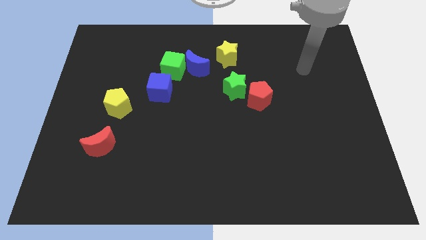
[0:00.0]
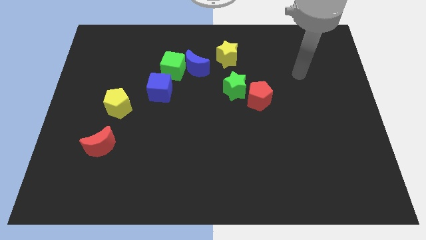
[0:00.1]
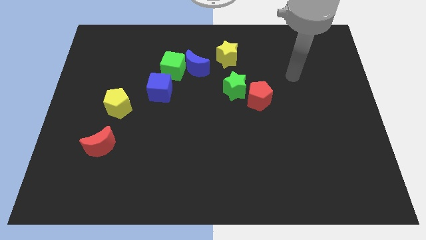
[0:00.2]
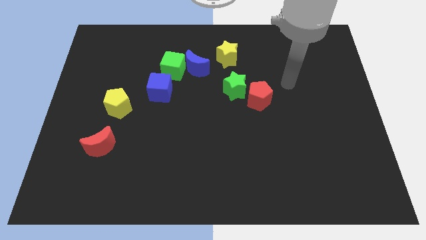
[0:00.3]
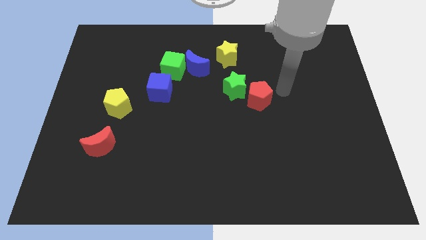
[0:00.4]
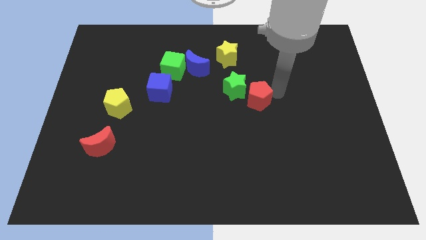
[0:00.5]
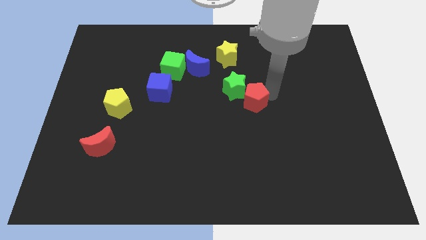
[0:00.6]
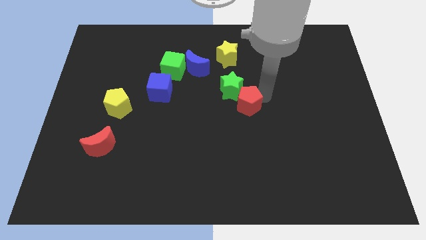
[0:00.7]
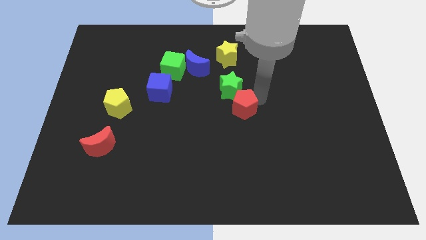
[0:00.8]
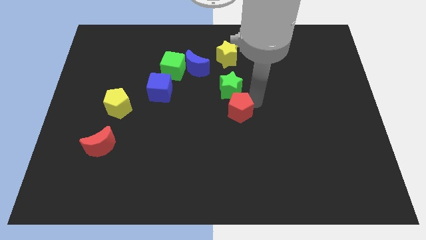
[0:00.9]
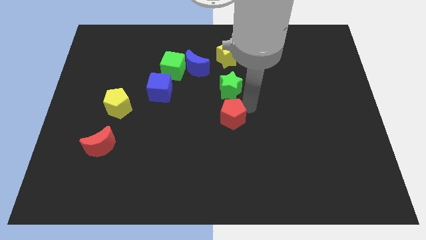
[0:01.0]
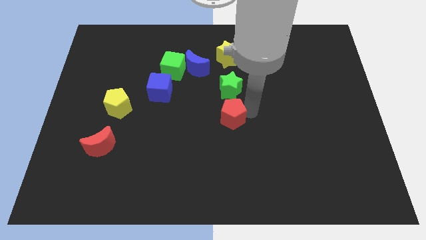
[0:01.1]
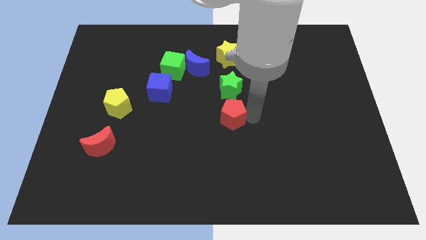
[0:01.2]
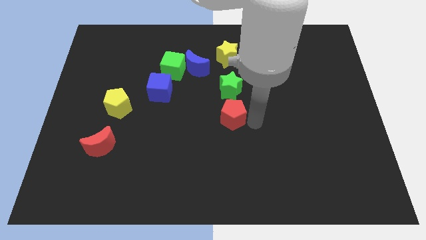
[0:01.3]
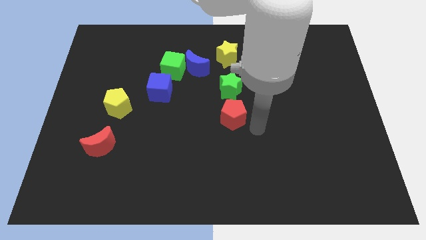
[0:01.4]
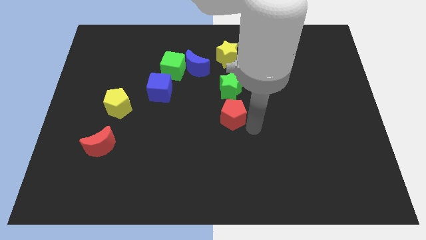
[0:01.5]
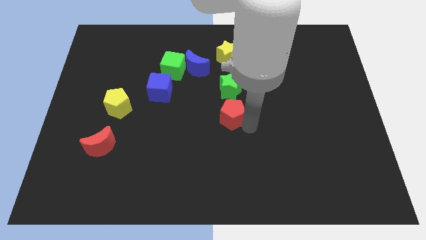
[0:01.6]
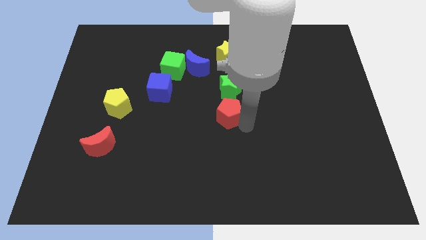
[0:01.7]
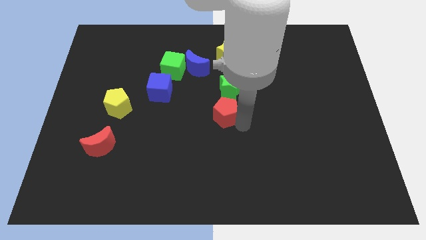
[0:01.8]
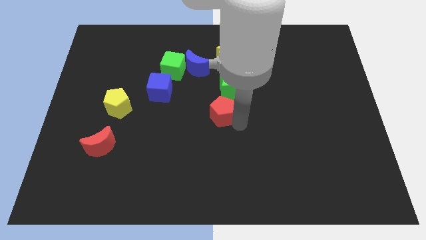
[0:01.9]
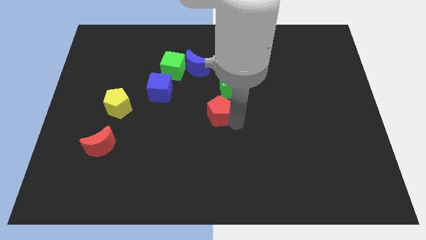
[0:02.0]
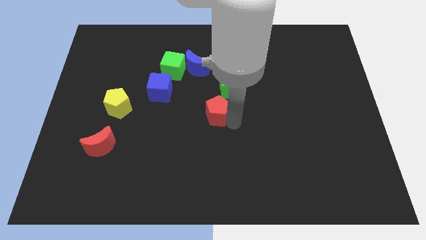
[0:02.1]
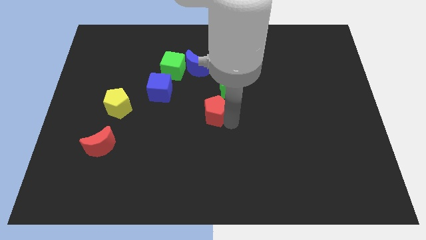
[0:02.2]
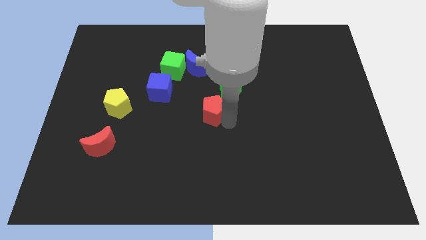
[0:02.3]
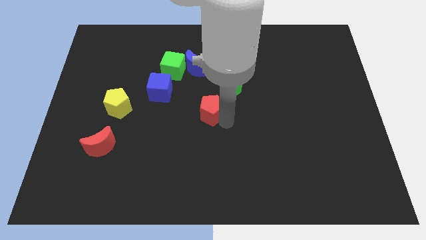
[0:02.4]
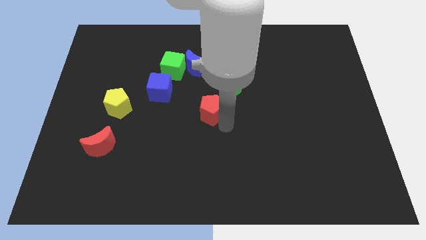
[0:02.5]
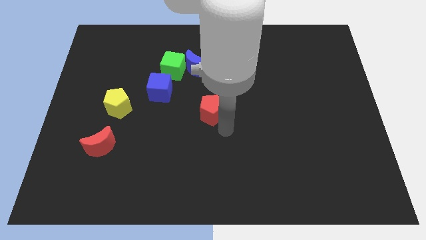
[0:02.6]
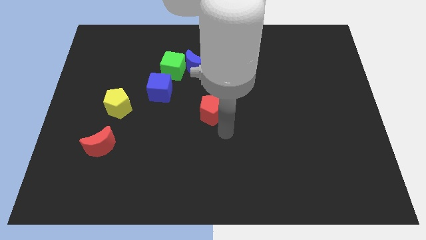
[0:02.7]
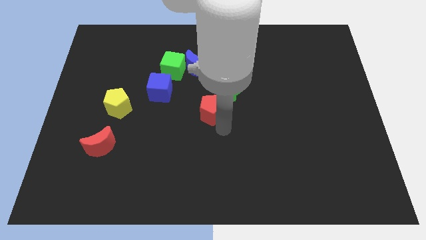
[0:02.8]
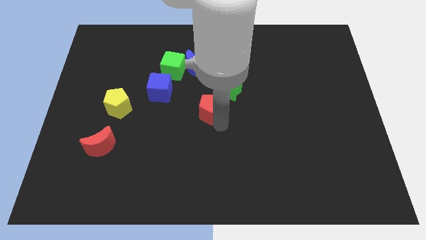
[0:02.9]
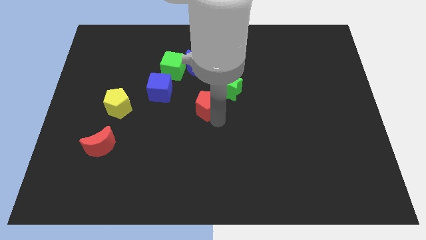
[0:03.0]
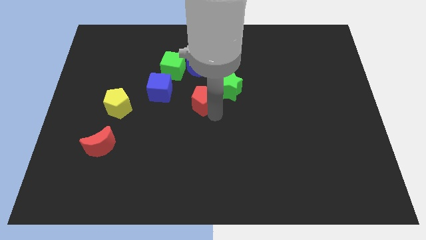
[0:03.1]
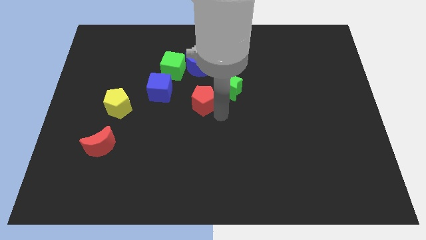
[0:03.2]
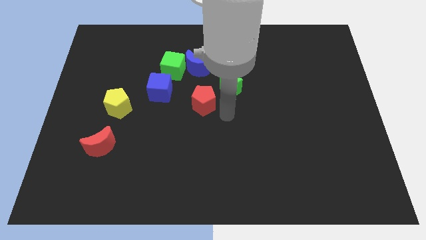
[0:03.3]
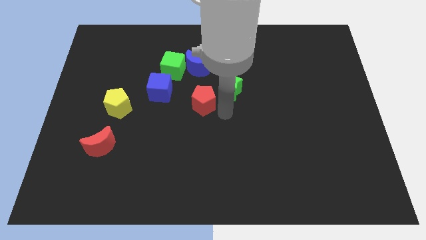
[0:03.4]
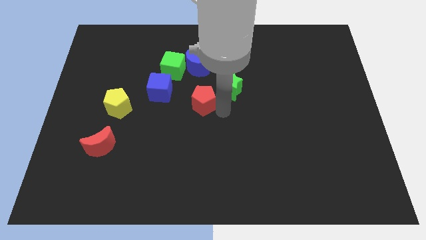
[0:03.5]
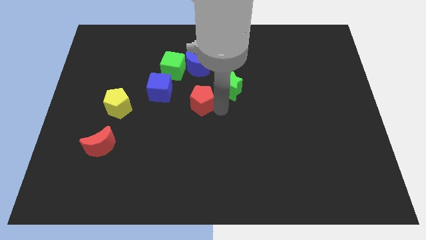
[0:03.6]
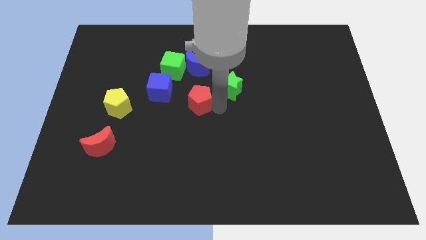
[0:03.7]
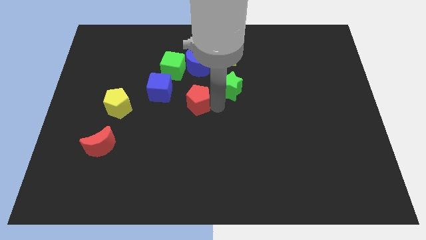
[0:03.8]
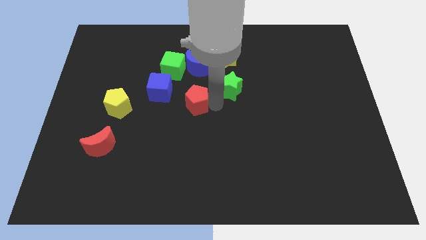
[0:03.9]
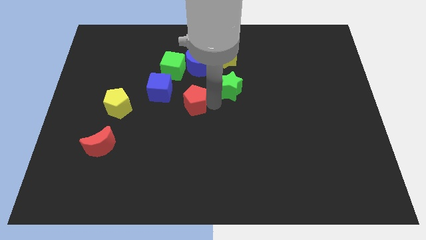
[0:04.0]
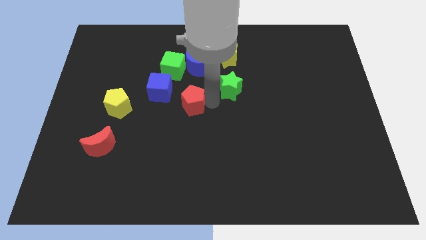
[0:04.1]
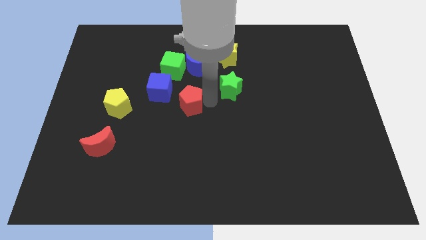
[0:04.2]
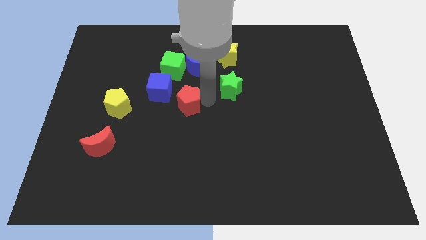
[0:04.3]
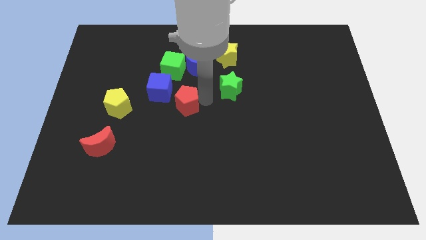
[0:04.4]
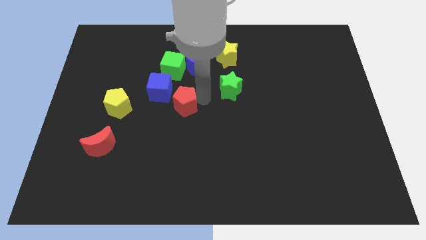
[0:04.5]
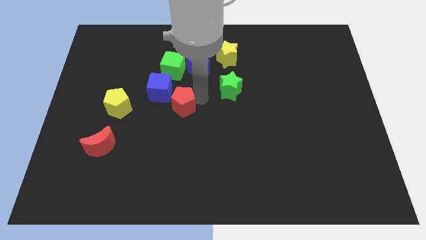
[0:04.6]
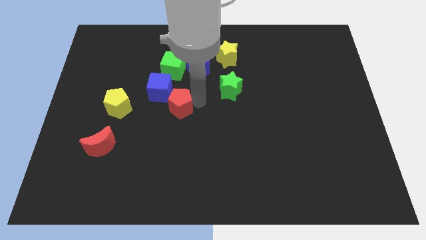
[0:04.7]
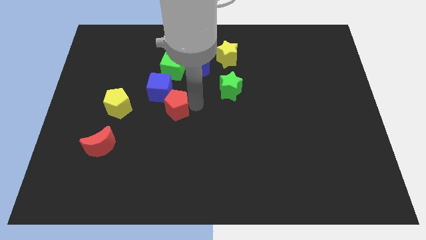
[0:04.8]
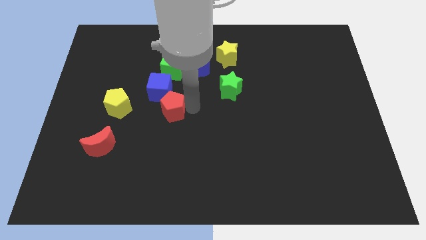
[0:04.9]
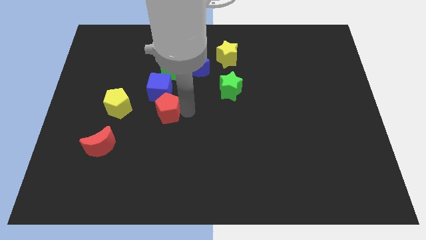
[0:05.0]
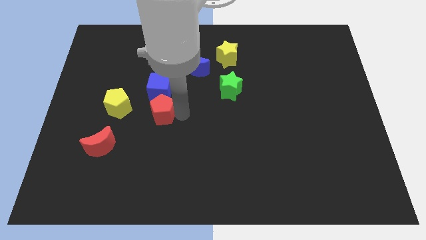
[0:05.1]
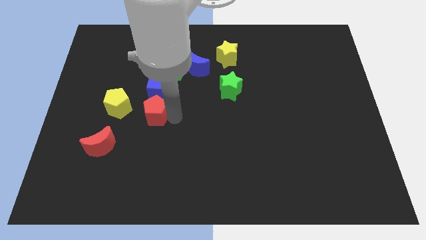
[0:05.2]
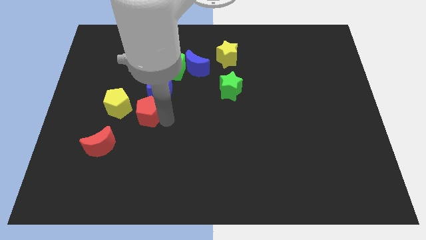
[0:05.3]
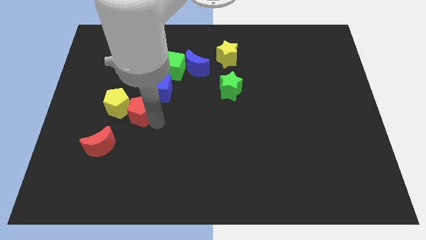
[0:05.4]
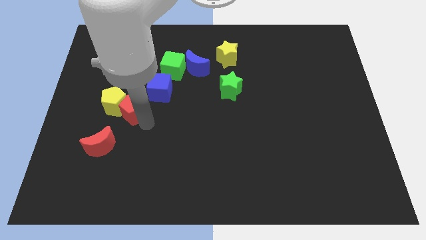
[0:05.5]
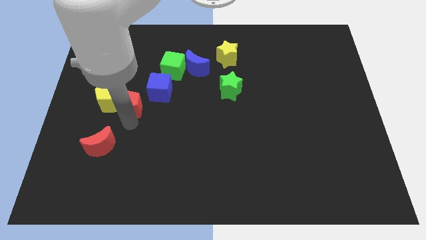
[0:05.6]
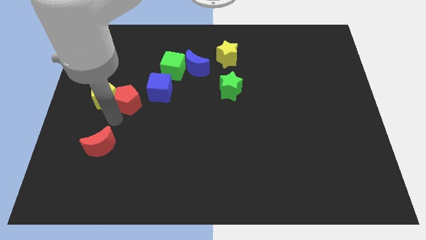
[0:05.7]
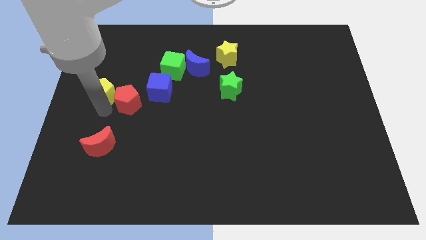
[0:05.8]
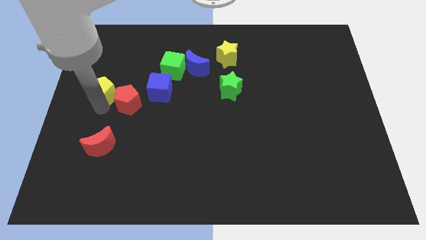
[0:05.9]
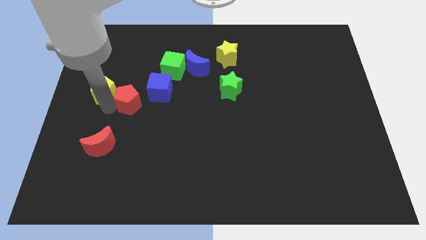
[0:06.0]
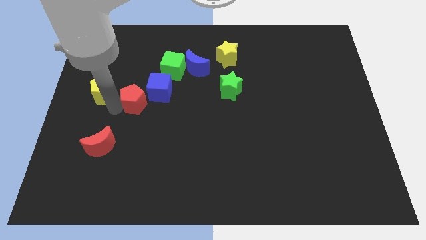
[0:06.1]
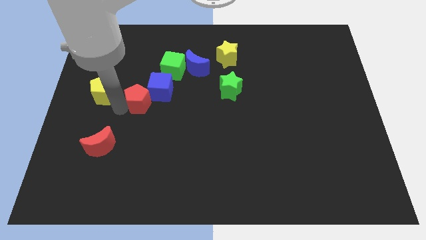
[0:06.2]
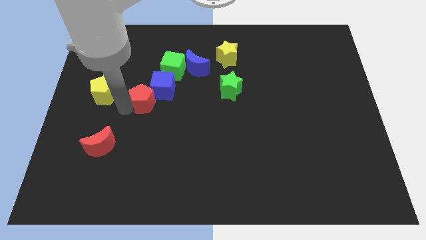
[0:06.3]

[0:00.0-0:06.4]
push the red pentagon close to the blue cube
